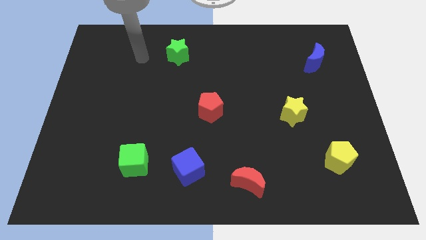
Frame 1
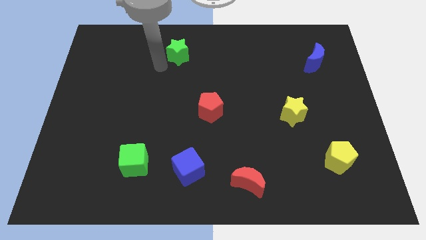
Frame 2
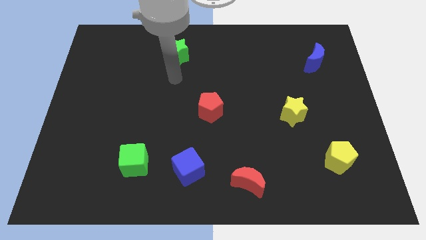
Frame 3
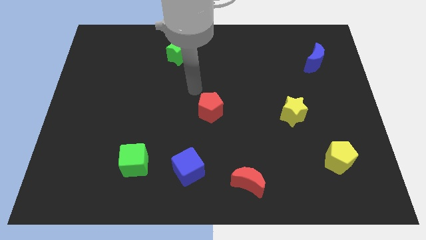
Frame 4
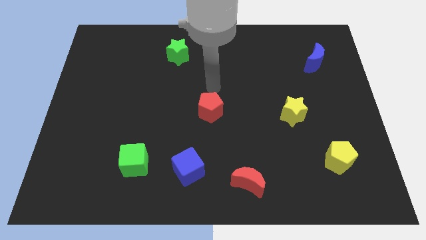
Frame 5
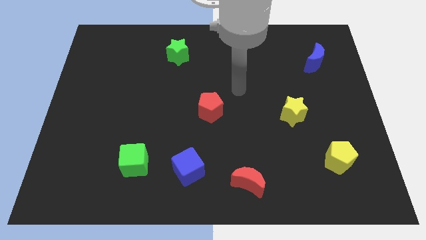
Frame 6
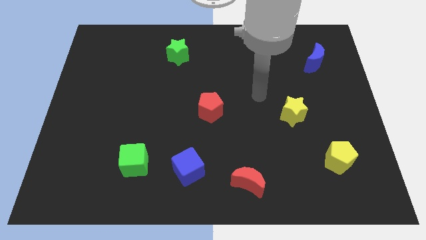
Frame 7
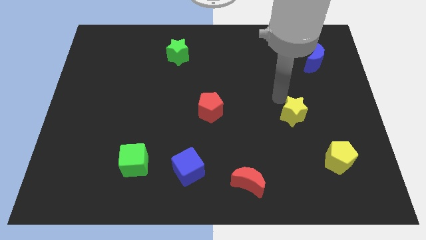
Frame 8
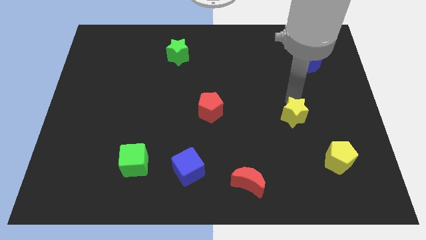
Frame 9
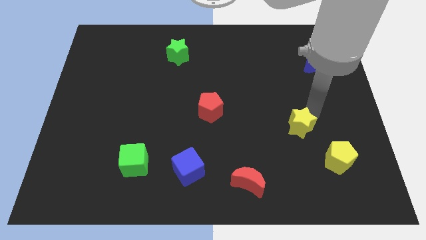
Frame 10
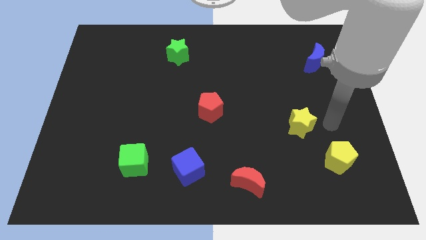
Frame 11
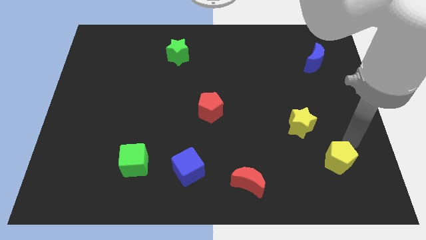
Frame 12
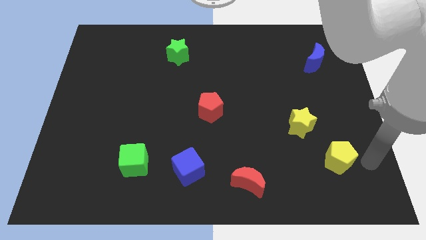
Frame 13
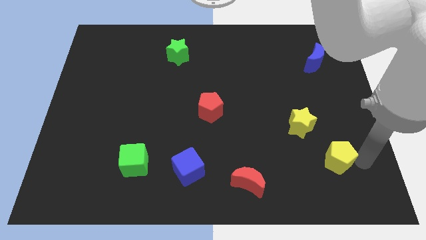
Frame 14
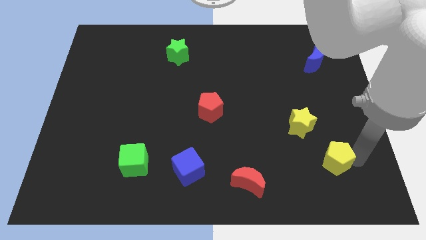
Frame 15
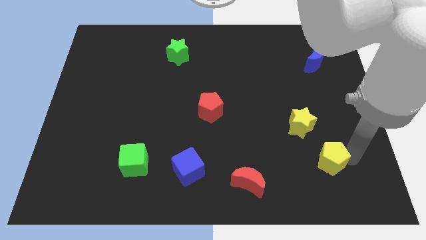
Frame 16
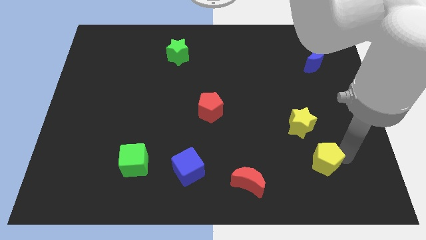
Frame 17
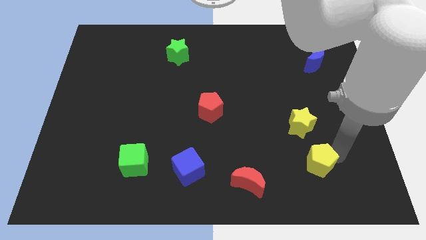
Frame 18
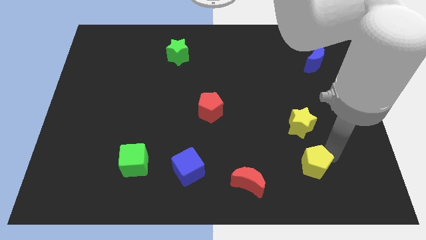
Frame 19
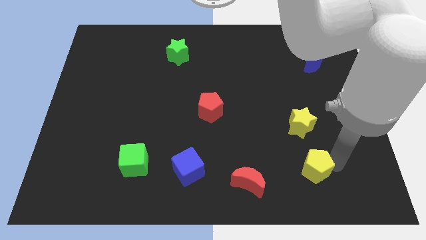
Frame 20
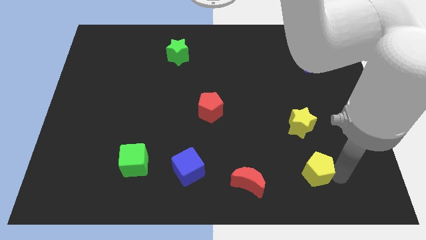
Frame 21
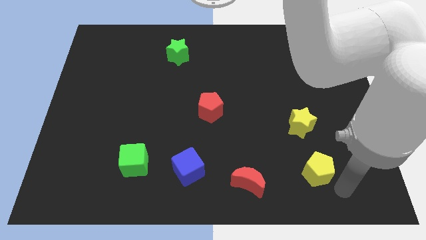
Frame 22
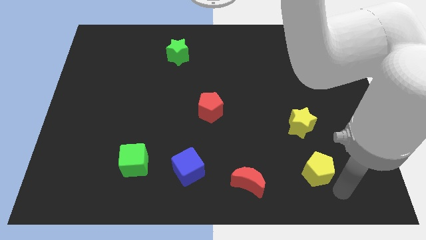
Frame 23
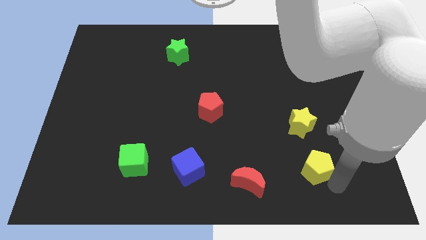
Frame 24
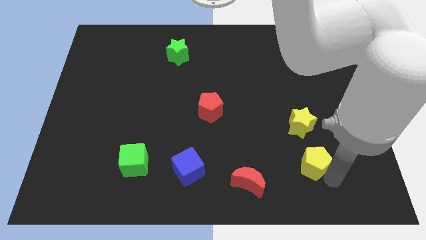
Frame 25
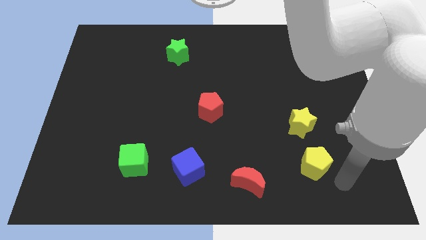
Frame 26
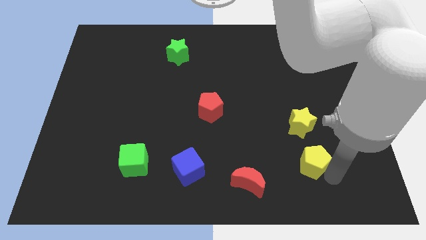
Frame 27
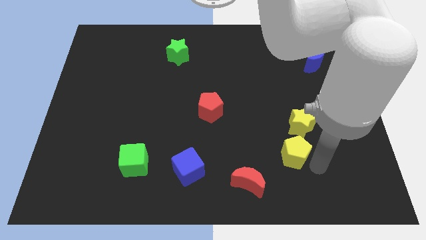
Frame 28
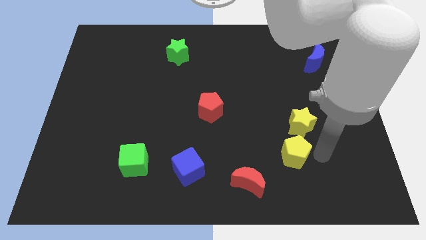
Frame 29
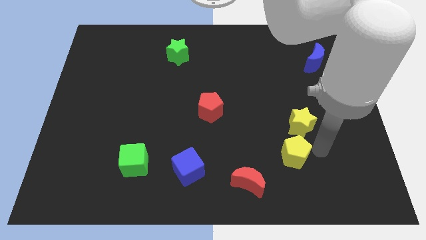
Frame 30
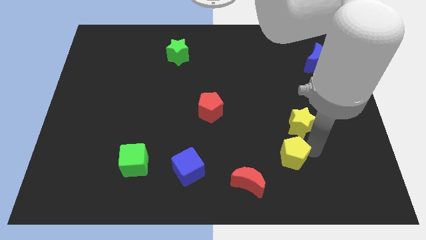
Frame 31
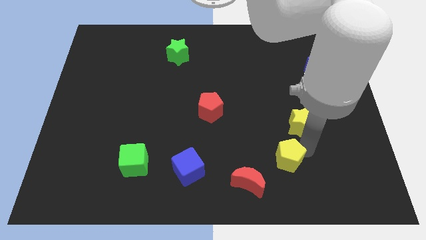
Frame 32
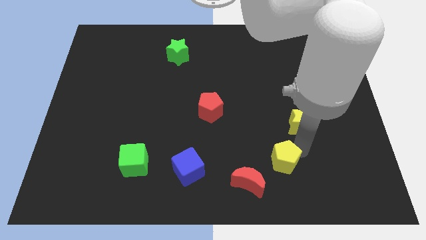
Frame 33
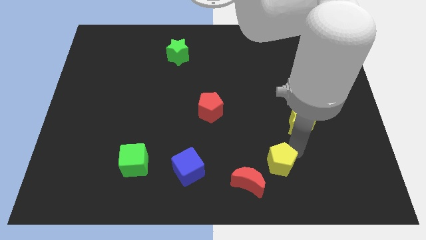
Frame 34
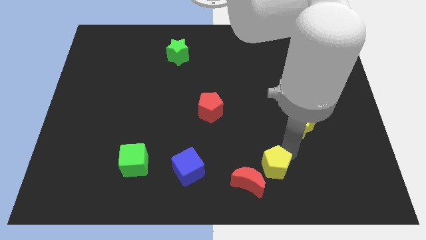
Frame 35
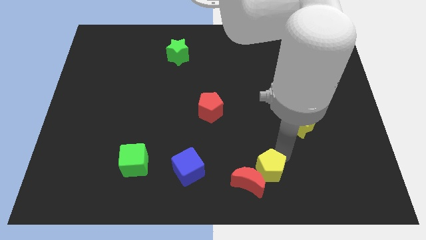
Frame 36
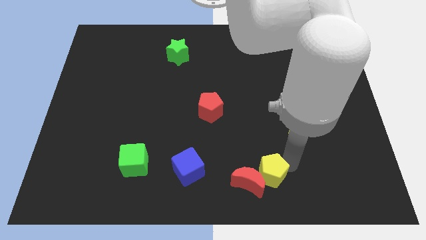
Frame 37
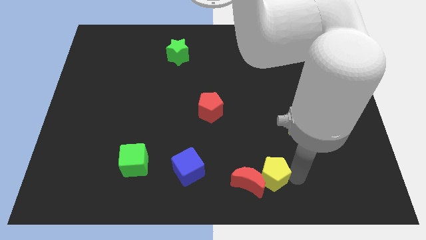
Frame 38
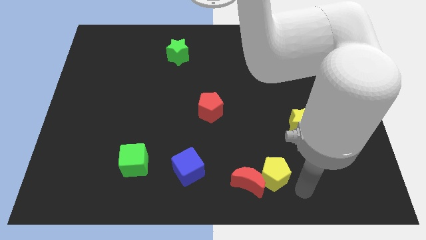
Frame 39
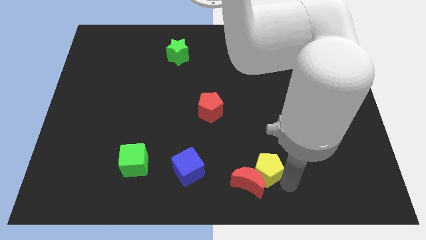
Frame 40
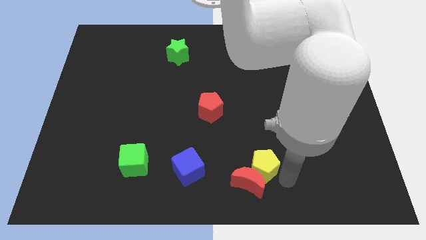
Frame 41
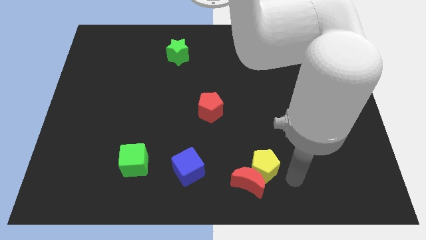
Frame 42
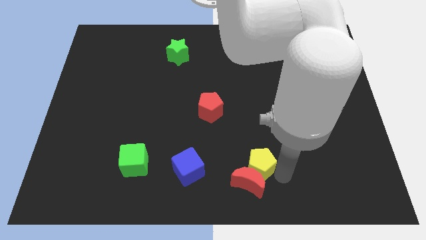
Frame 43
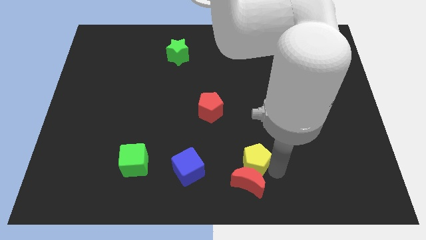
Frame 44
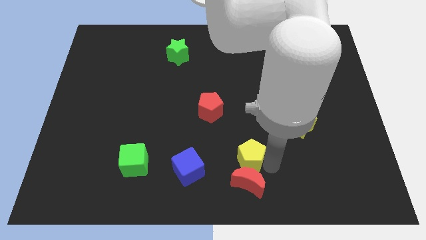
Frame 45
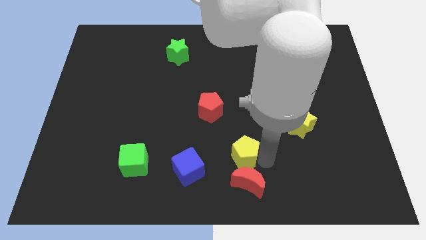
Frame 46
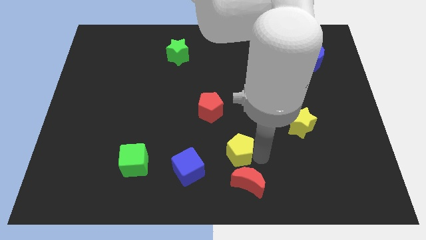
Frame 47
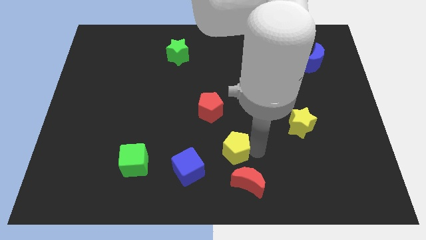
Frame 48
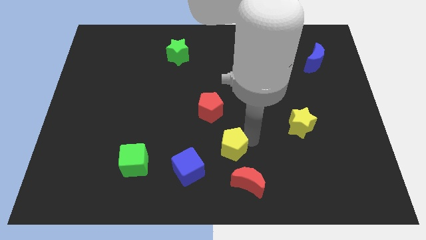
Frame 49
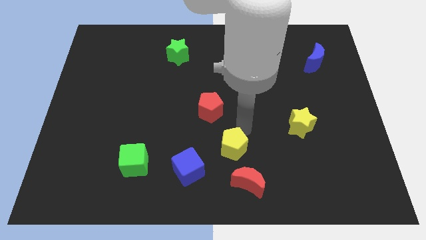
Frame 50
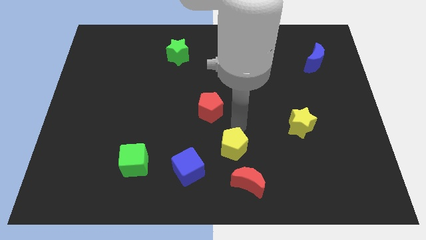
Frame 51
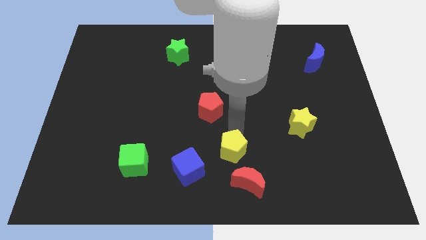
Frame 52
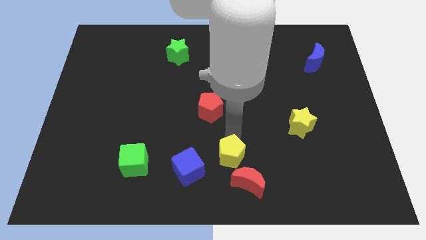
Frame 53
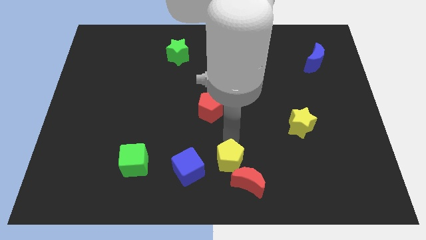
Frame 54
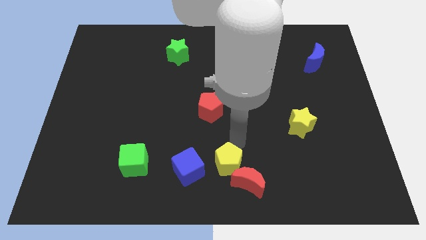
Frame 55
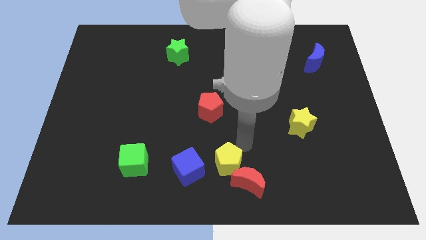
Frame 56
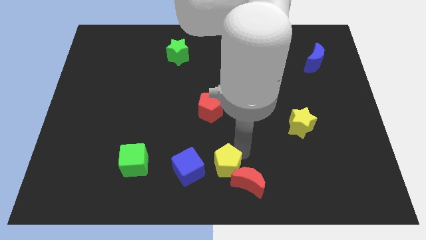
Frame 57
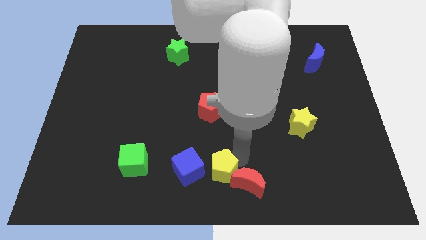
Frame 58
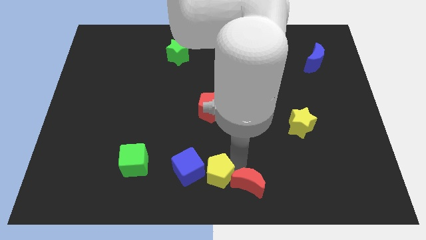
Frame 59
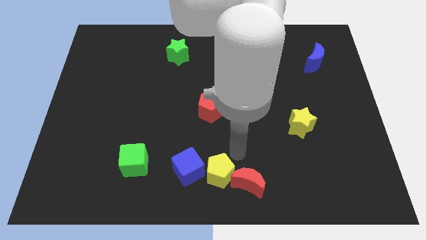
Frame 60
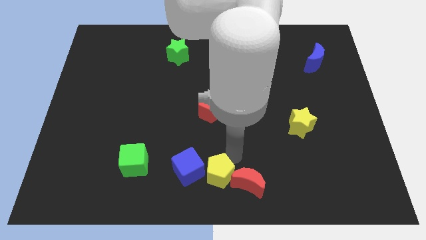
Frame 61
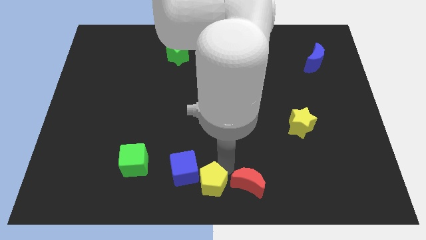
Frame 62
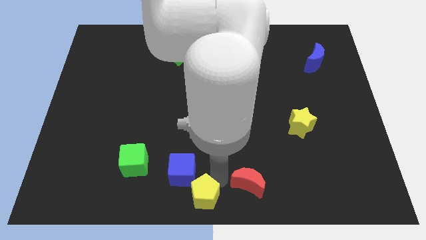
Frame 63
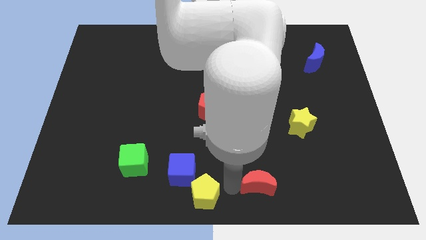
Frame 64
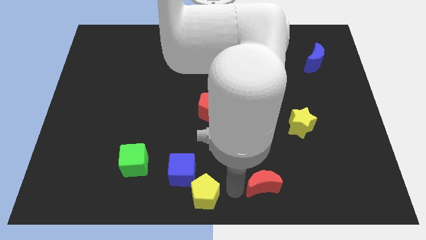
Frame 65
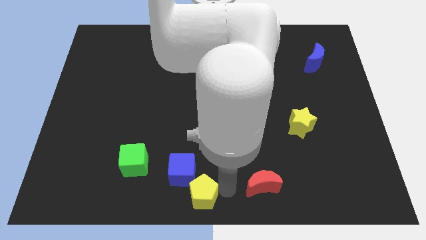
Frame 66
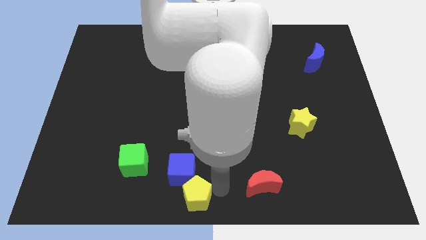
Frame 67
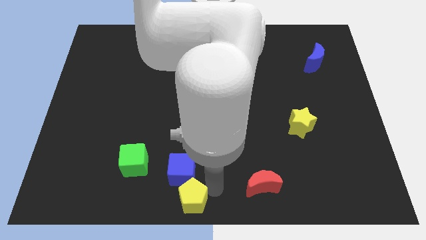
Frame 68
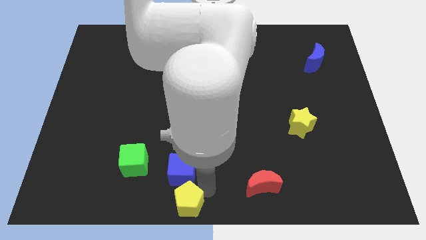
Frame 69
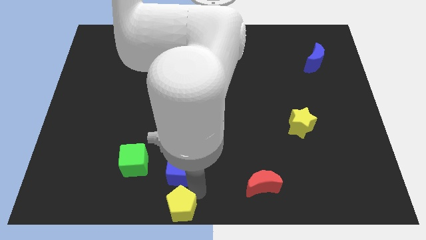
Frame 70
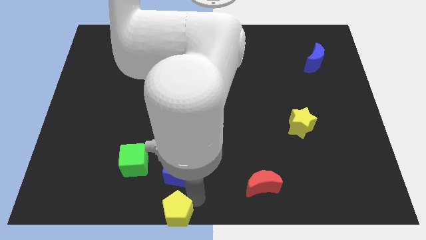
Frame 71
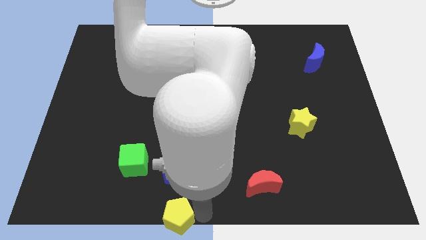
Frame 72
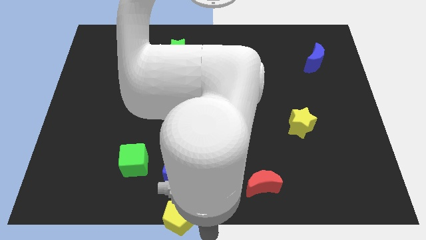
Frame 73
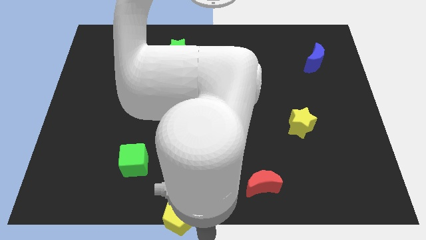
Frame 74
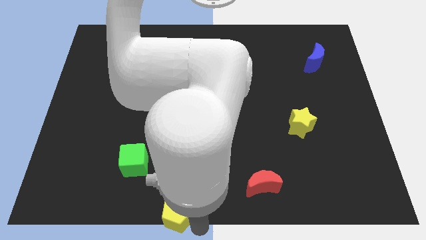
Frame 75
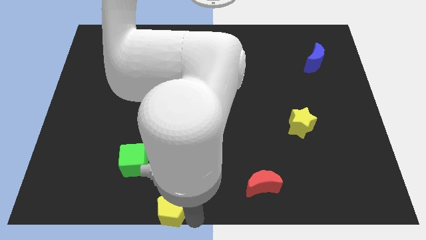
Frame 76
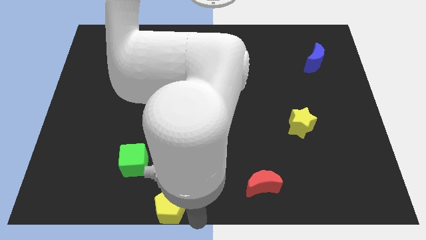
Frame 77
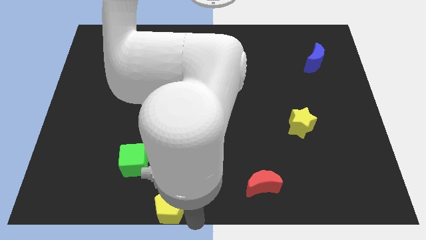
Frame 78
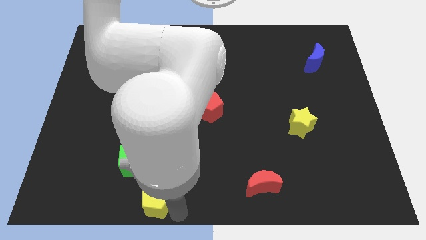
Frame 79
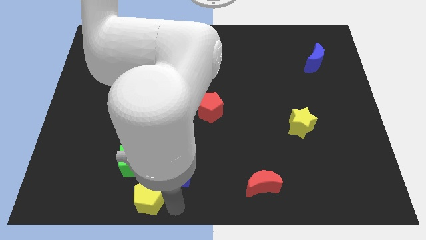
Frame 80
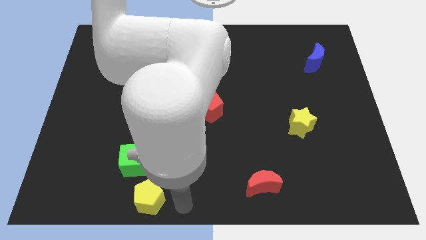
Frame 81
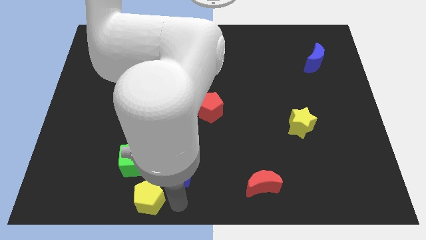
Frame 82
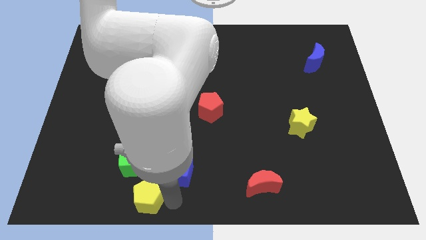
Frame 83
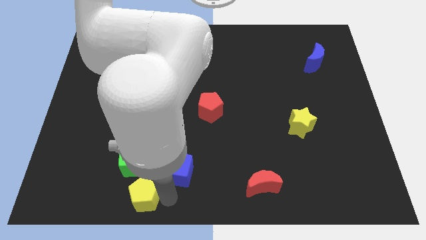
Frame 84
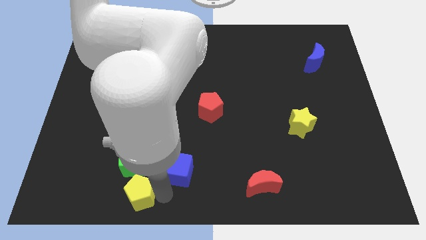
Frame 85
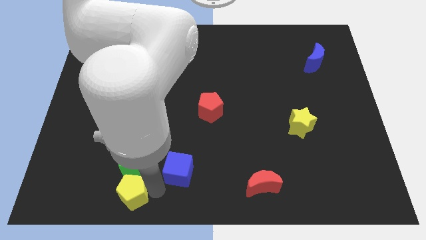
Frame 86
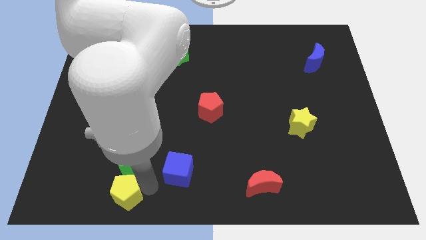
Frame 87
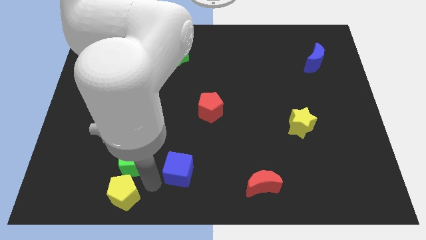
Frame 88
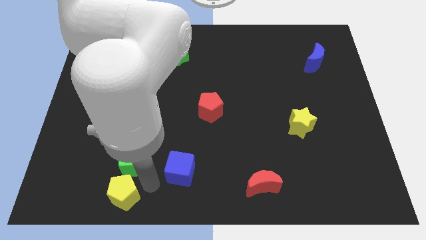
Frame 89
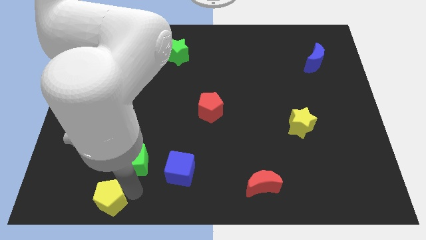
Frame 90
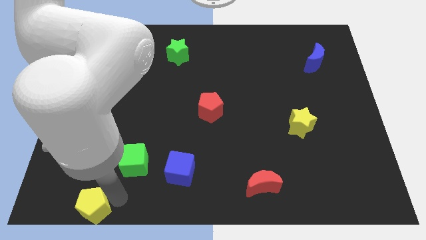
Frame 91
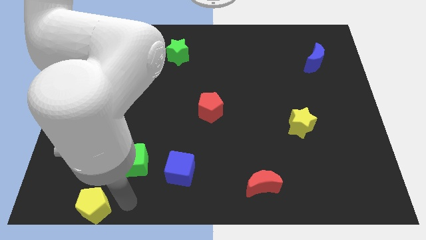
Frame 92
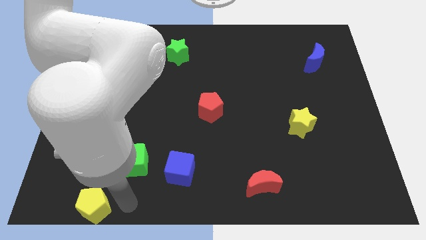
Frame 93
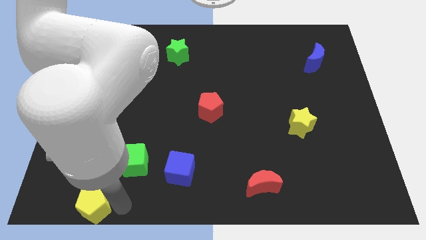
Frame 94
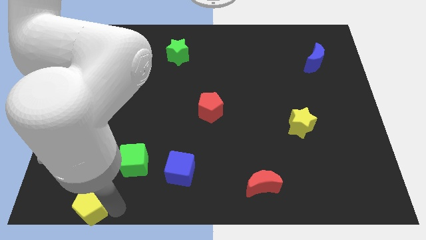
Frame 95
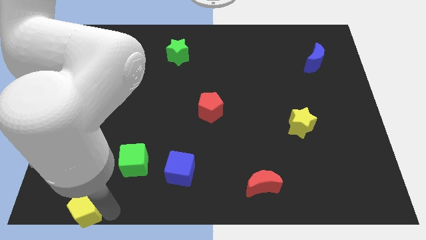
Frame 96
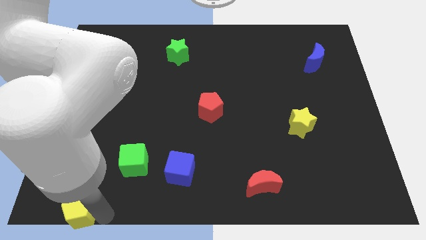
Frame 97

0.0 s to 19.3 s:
put the yellow pentagon to the bottom left of the board
